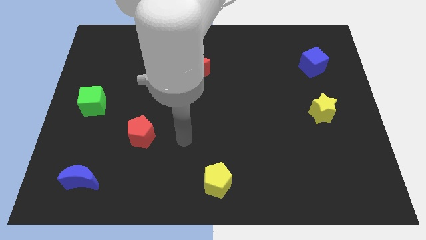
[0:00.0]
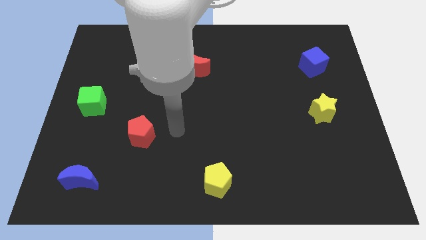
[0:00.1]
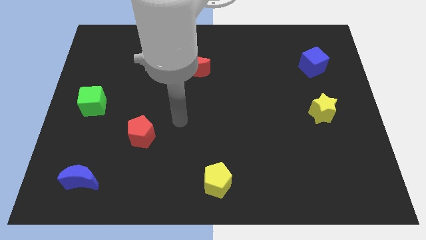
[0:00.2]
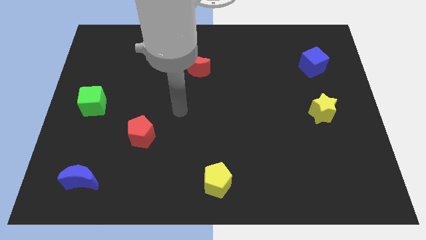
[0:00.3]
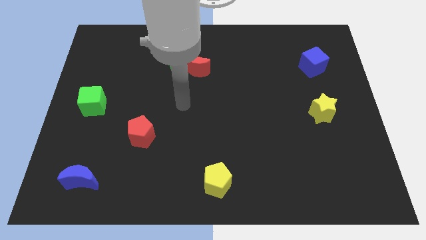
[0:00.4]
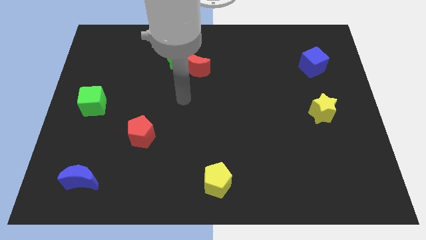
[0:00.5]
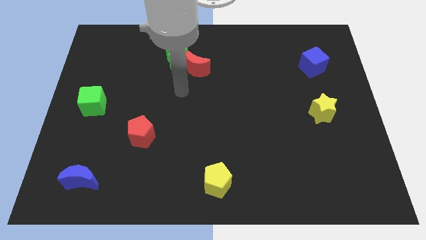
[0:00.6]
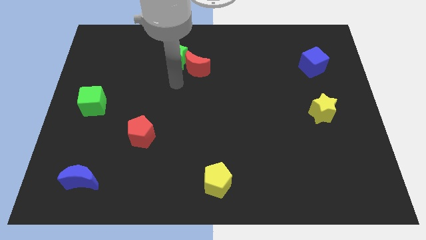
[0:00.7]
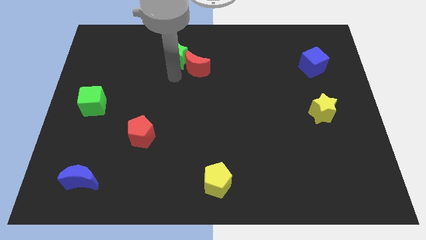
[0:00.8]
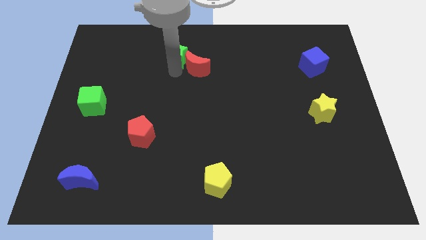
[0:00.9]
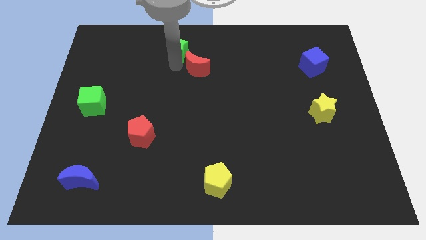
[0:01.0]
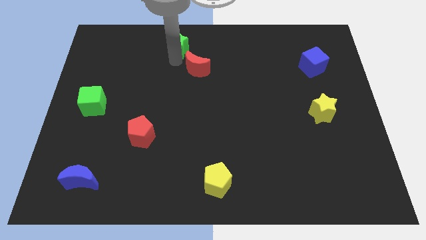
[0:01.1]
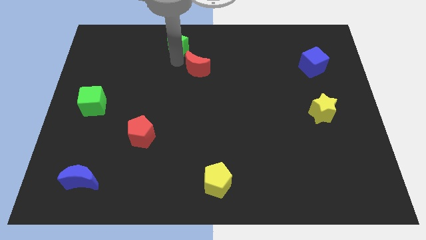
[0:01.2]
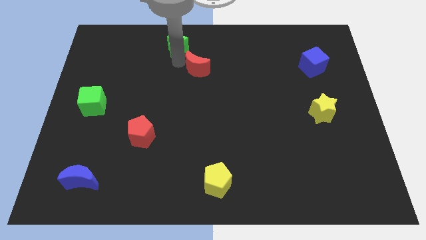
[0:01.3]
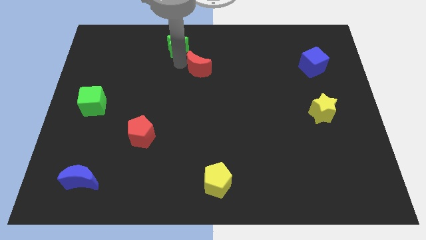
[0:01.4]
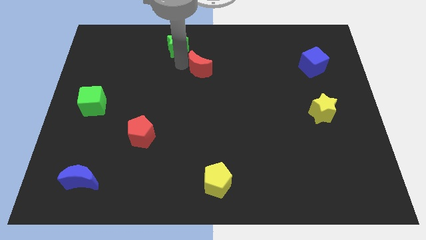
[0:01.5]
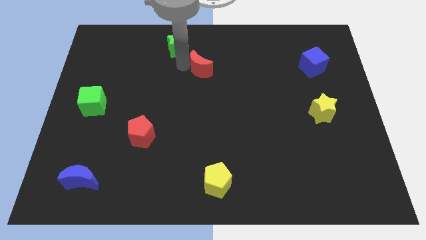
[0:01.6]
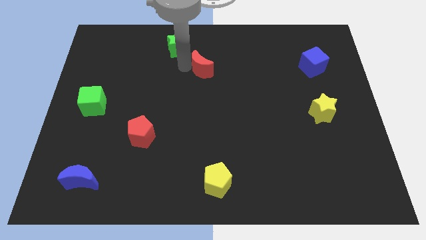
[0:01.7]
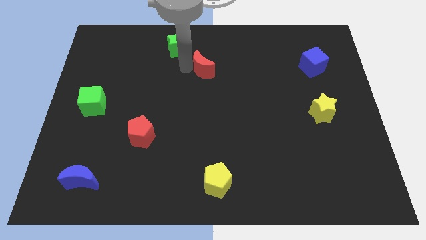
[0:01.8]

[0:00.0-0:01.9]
pull the red moon apart from the green star

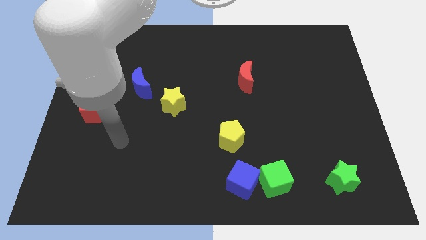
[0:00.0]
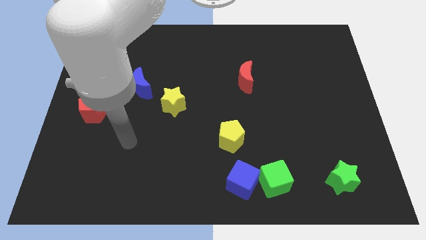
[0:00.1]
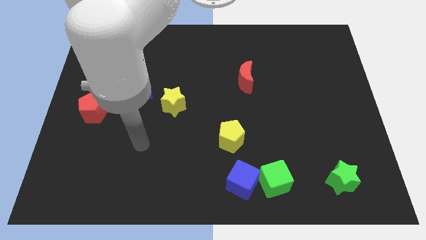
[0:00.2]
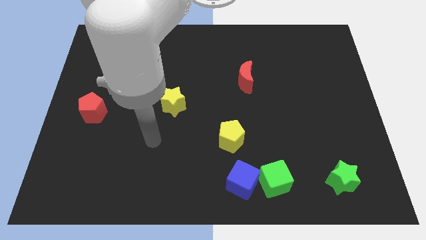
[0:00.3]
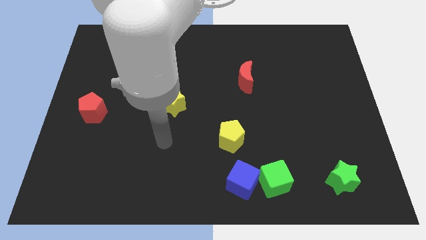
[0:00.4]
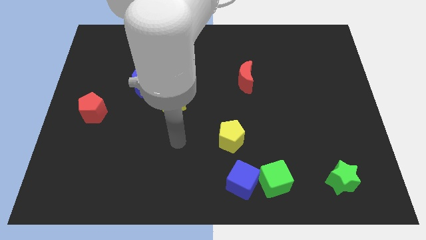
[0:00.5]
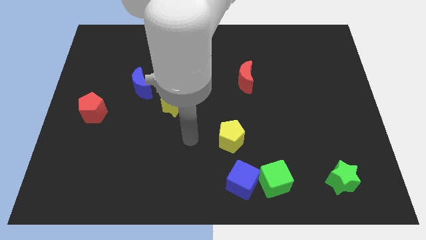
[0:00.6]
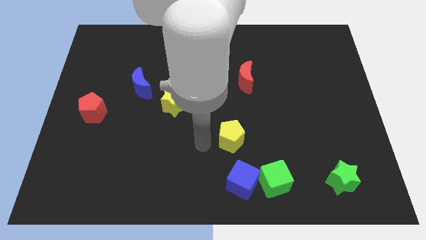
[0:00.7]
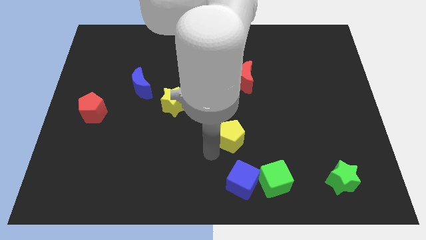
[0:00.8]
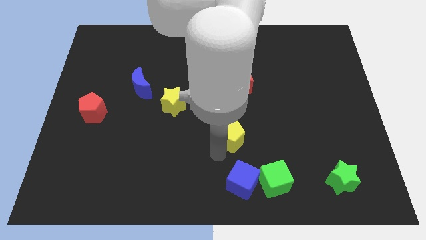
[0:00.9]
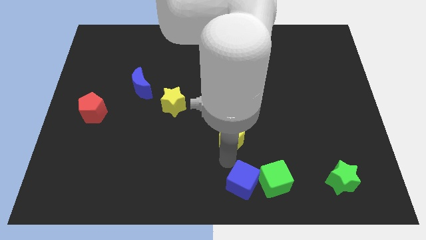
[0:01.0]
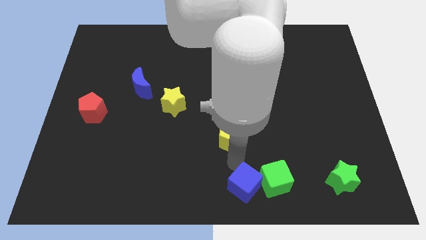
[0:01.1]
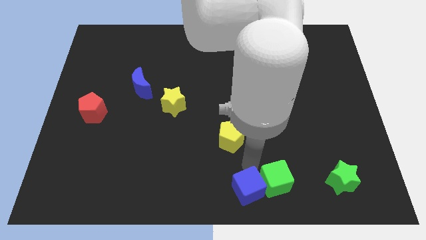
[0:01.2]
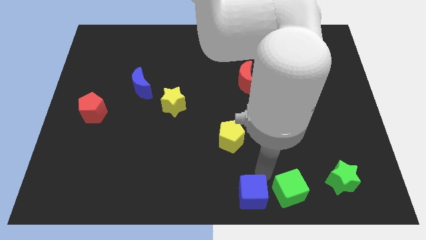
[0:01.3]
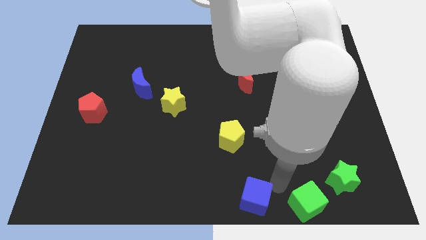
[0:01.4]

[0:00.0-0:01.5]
separate the blue cube from the green cube

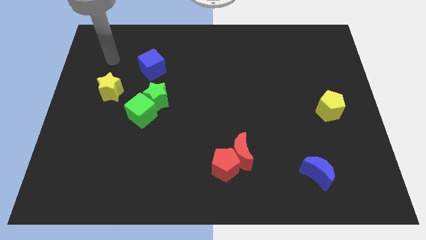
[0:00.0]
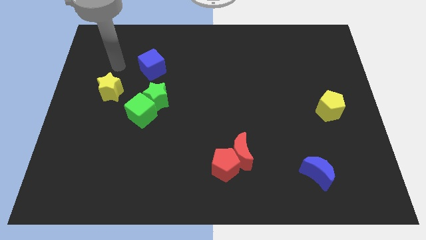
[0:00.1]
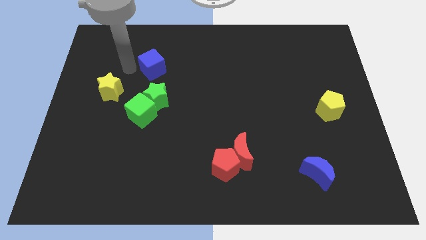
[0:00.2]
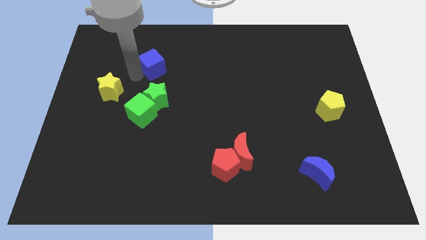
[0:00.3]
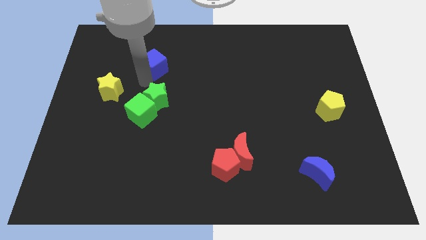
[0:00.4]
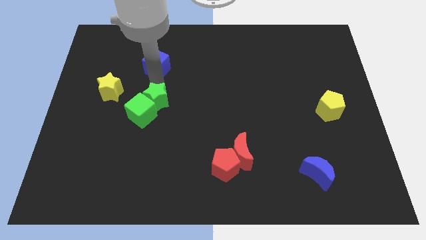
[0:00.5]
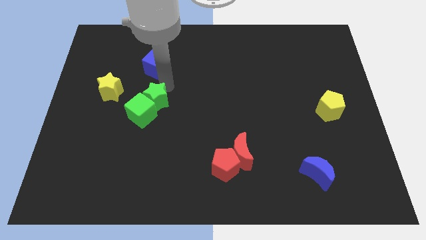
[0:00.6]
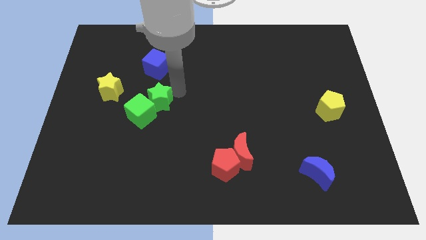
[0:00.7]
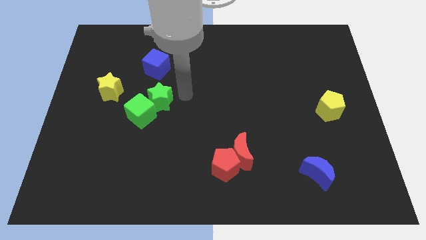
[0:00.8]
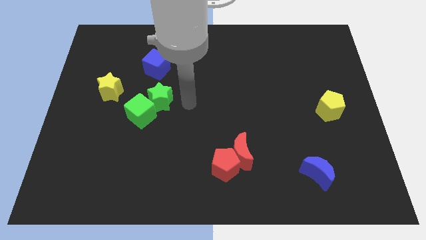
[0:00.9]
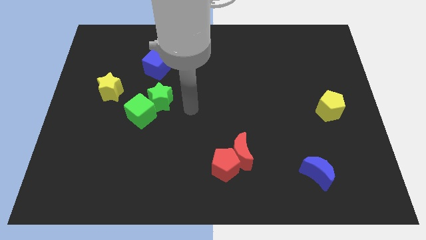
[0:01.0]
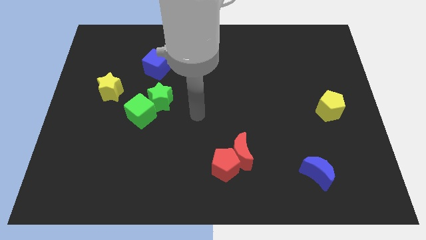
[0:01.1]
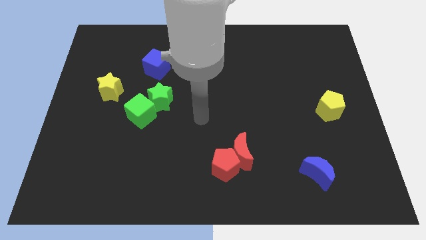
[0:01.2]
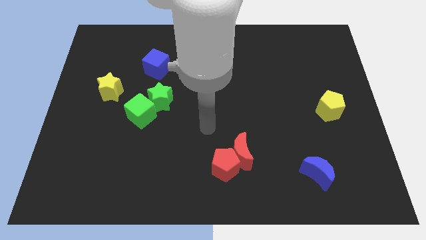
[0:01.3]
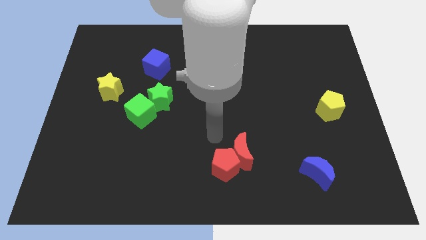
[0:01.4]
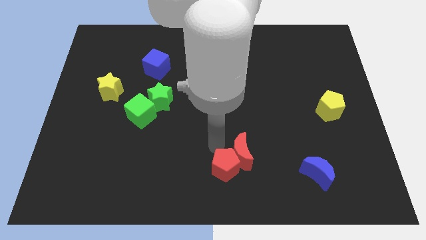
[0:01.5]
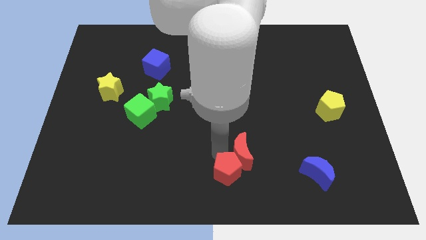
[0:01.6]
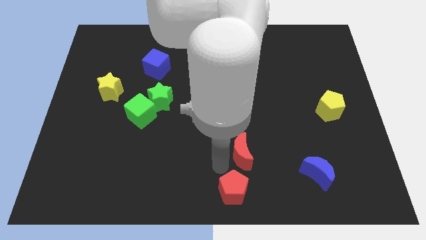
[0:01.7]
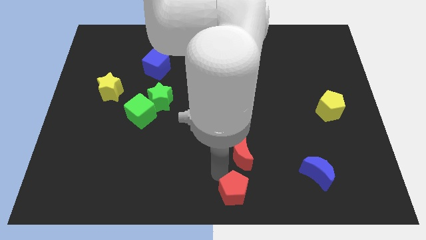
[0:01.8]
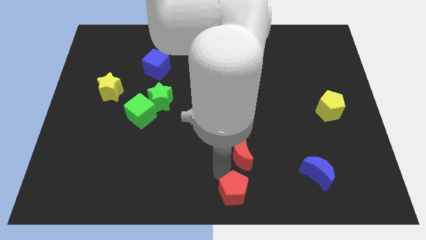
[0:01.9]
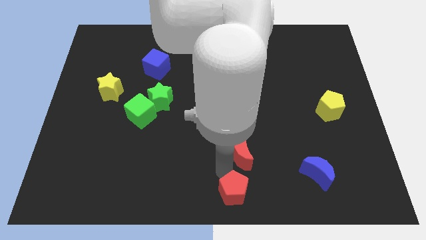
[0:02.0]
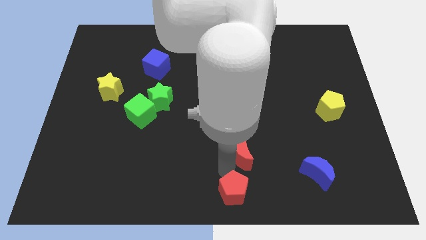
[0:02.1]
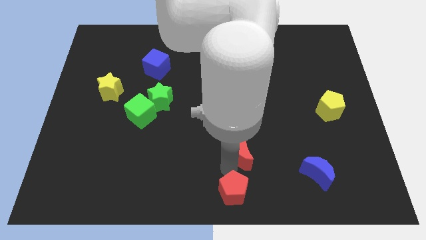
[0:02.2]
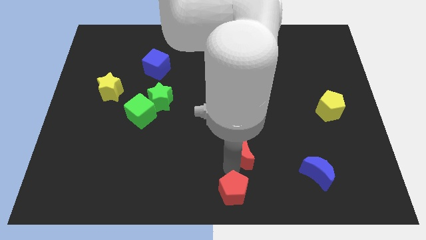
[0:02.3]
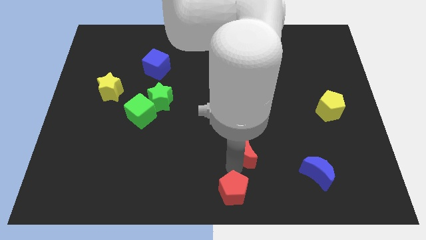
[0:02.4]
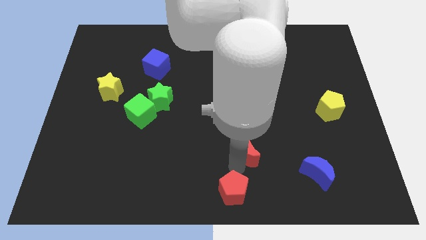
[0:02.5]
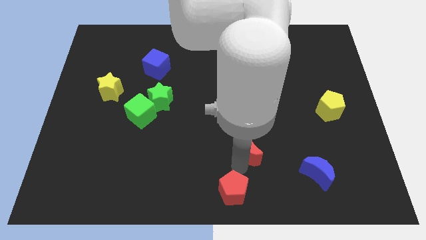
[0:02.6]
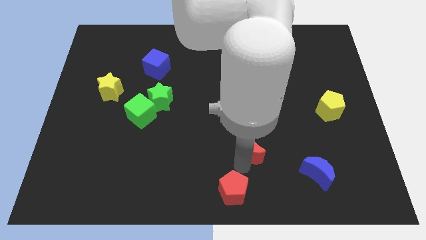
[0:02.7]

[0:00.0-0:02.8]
separate the red moon from the red pentagon

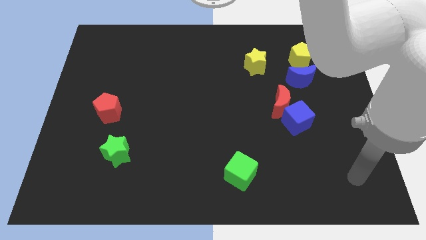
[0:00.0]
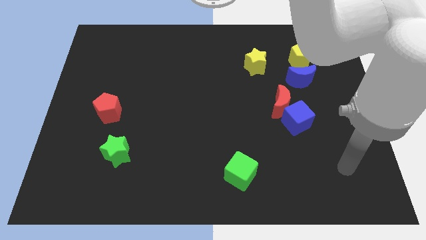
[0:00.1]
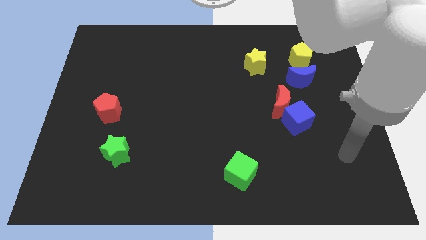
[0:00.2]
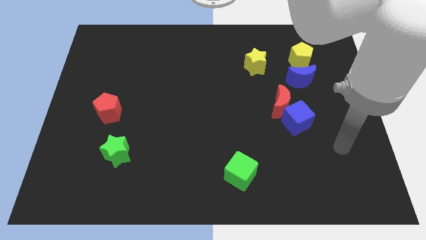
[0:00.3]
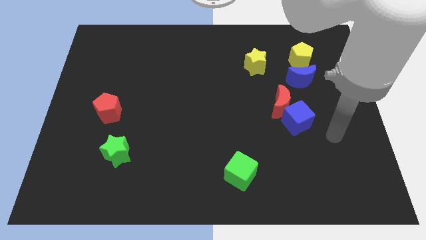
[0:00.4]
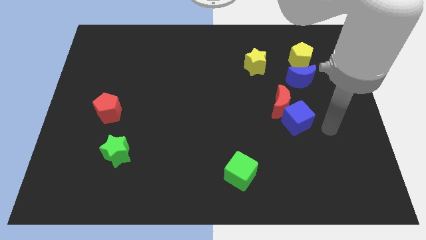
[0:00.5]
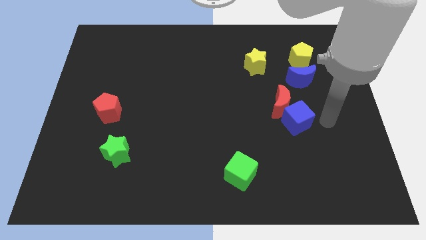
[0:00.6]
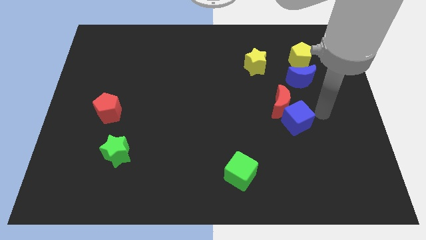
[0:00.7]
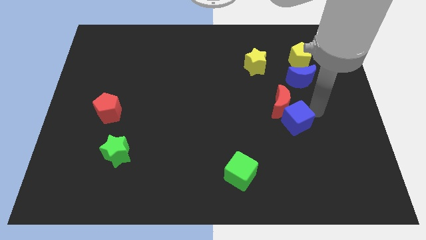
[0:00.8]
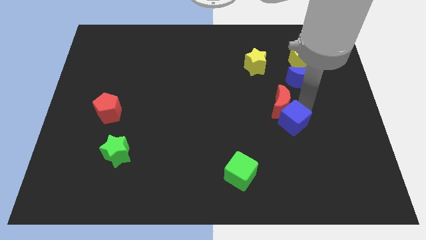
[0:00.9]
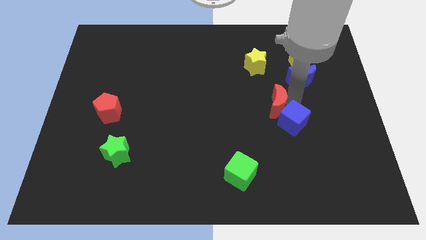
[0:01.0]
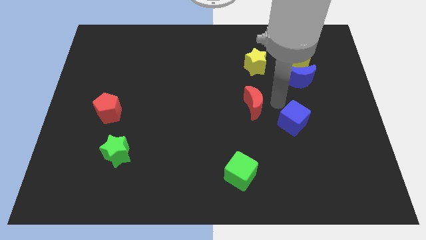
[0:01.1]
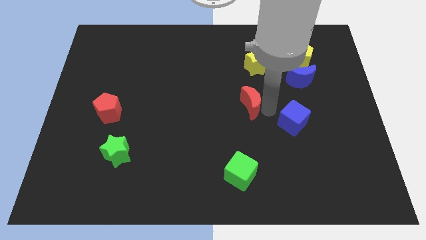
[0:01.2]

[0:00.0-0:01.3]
pull the blue cube apart from the red moon

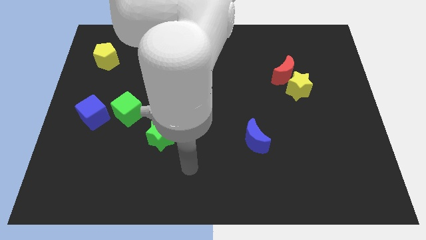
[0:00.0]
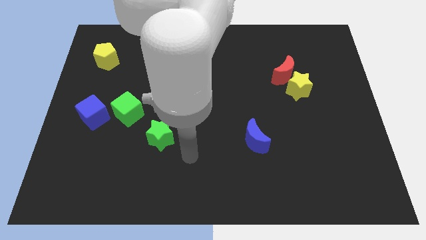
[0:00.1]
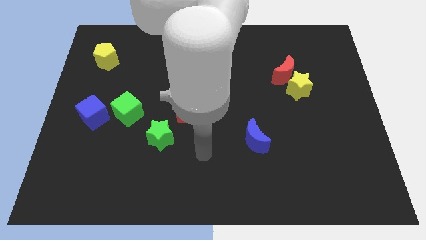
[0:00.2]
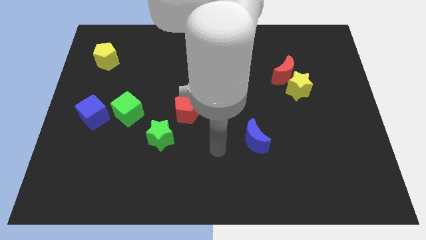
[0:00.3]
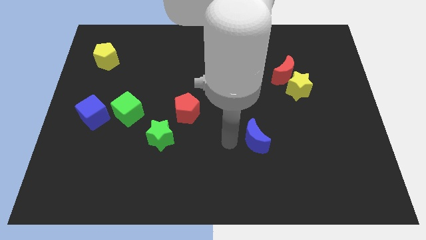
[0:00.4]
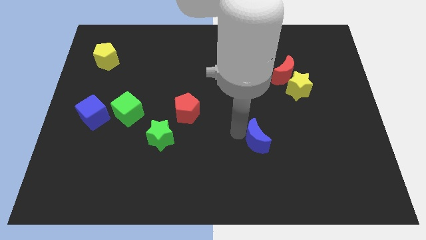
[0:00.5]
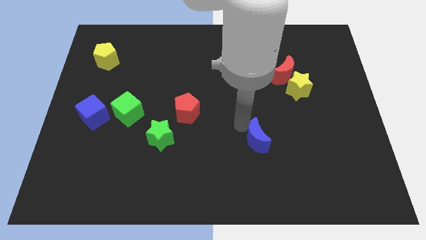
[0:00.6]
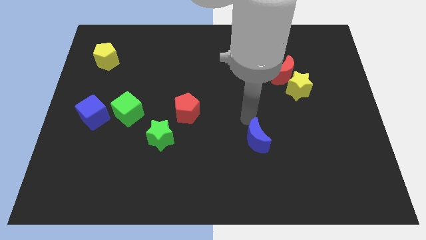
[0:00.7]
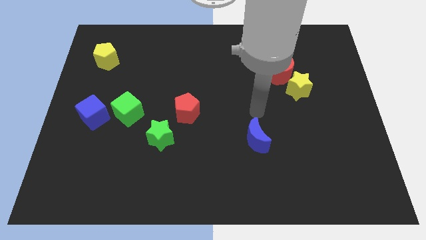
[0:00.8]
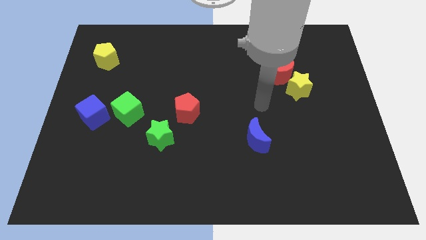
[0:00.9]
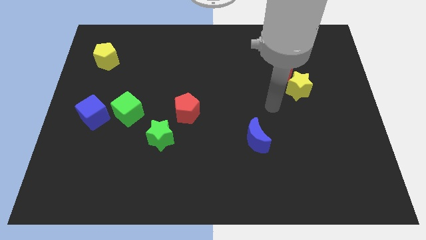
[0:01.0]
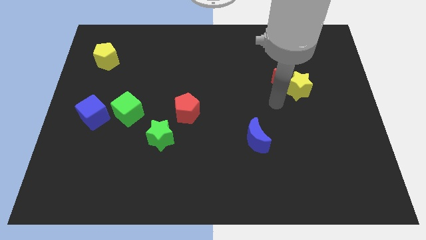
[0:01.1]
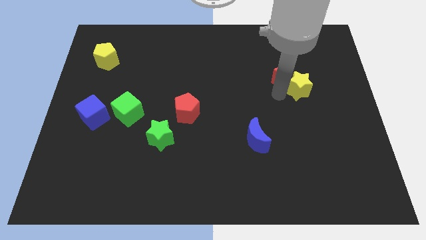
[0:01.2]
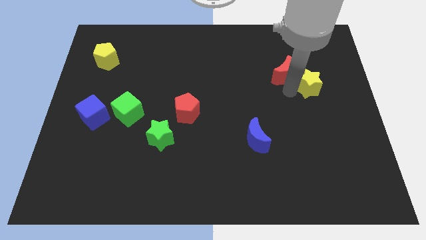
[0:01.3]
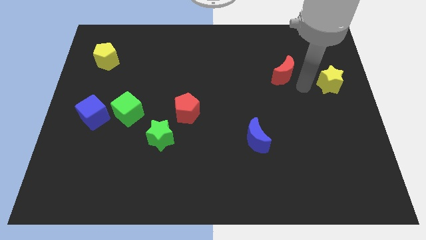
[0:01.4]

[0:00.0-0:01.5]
separate the red moon from the yellow star

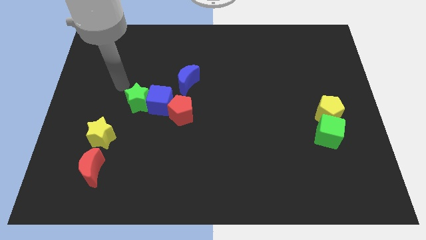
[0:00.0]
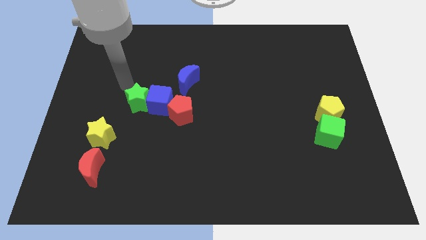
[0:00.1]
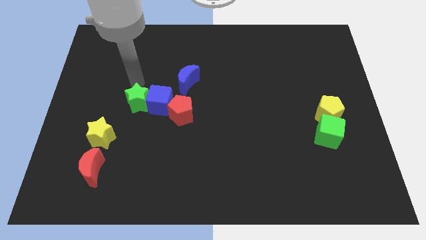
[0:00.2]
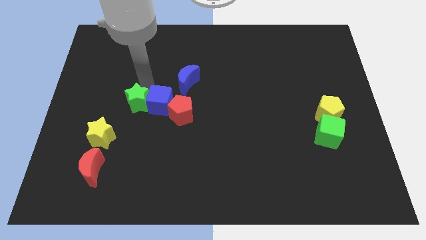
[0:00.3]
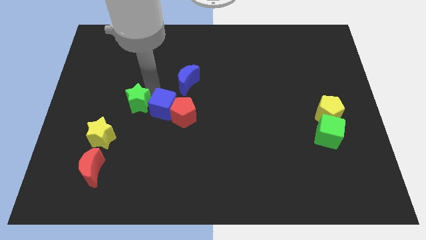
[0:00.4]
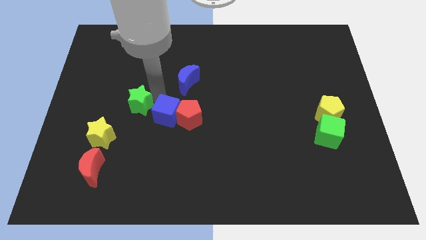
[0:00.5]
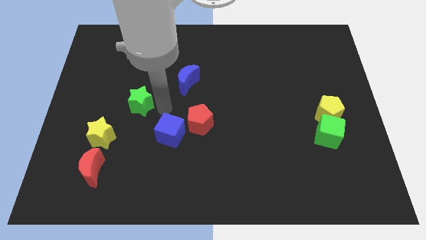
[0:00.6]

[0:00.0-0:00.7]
pull the green star apart from the blue cube
